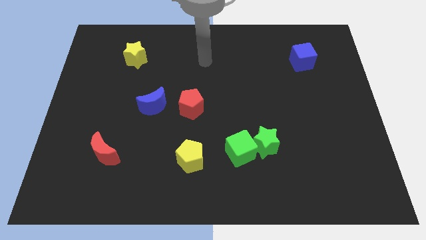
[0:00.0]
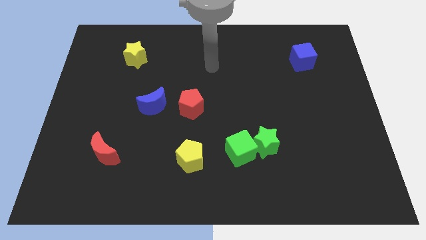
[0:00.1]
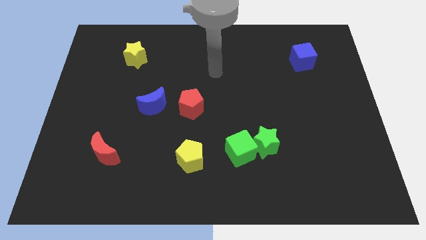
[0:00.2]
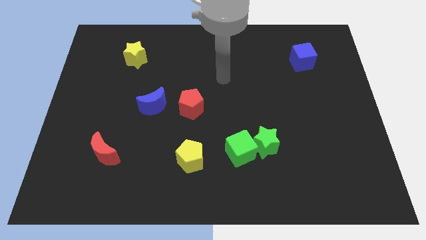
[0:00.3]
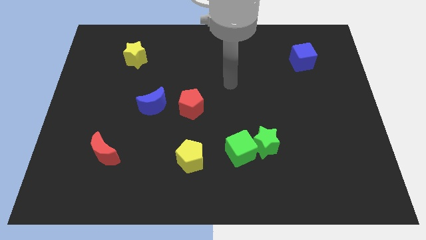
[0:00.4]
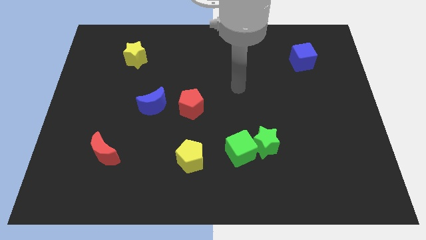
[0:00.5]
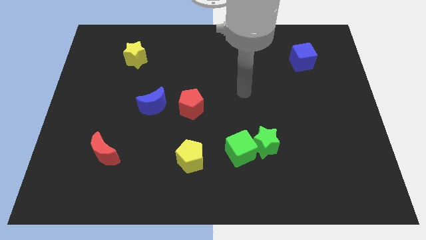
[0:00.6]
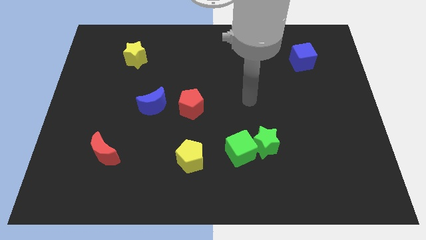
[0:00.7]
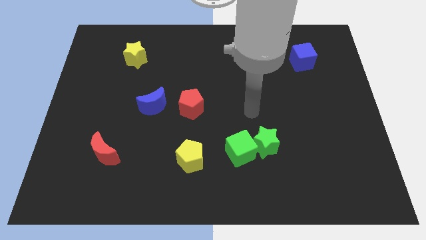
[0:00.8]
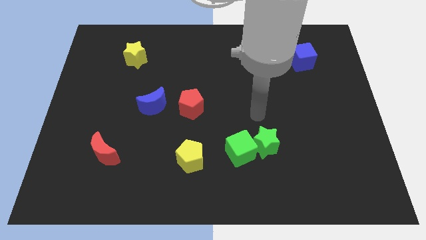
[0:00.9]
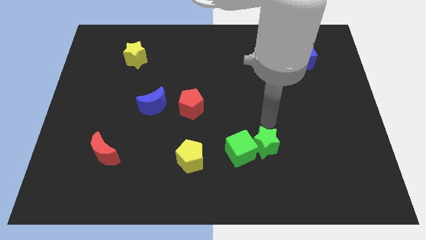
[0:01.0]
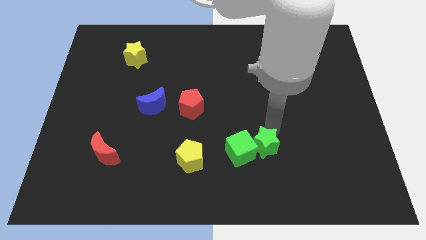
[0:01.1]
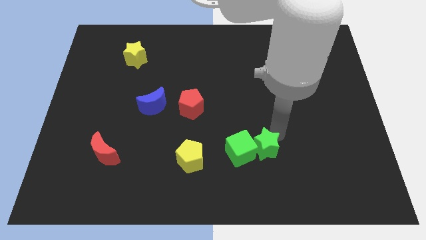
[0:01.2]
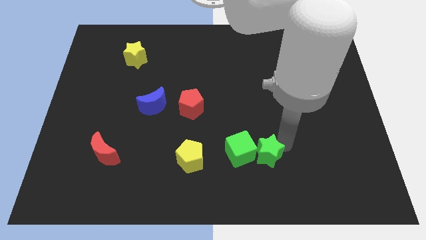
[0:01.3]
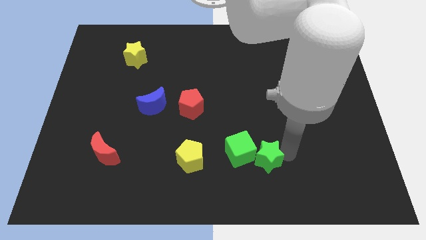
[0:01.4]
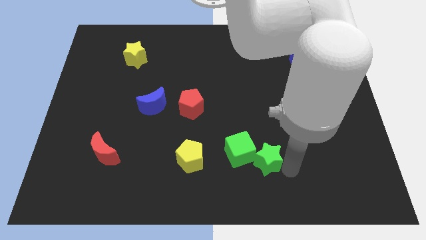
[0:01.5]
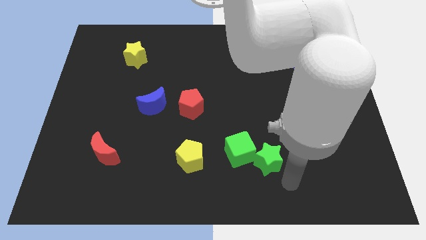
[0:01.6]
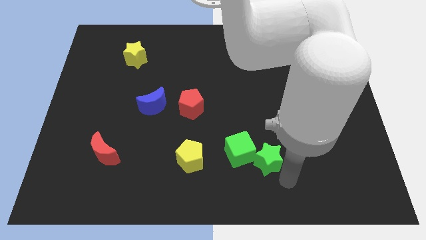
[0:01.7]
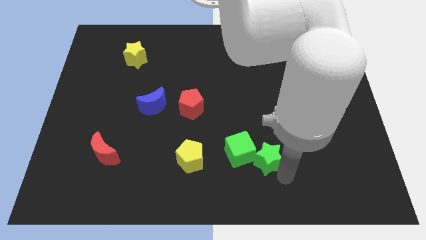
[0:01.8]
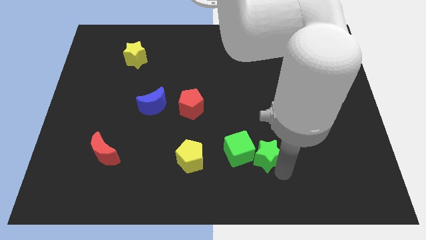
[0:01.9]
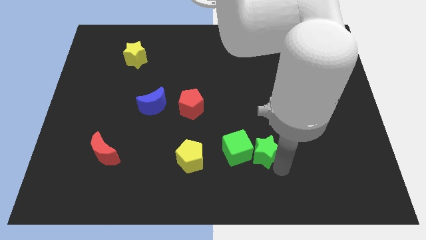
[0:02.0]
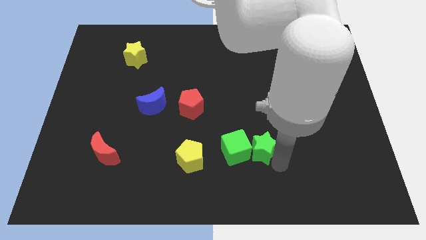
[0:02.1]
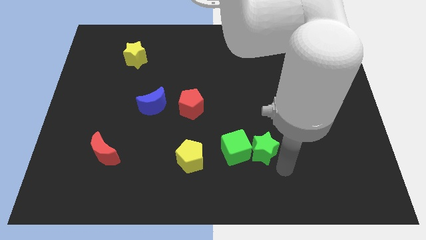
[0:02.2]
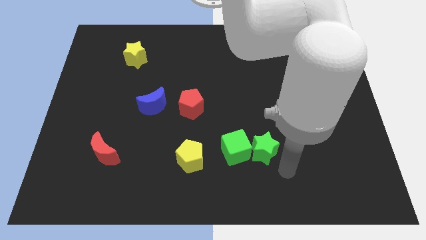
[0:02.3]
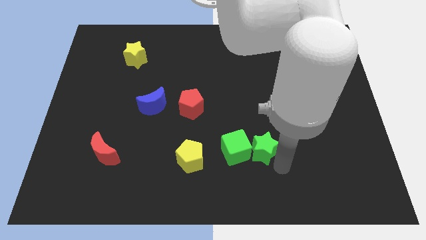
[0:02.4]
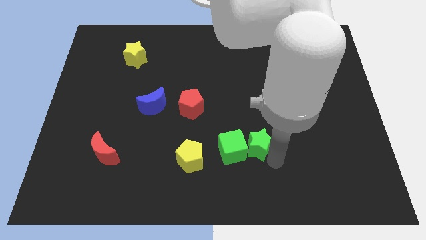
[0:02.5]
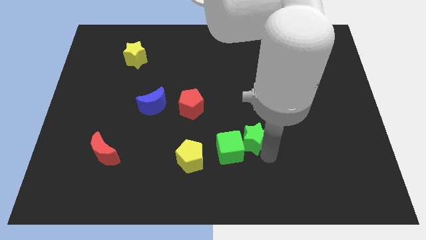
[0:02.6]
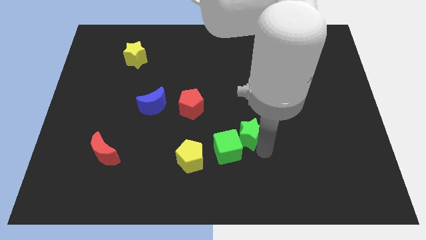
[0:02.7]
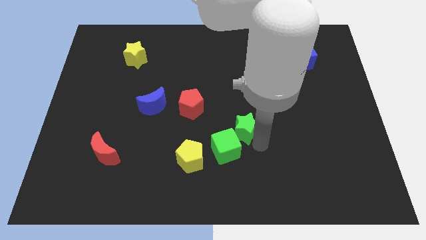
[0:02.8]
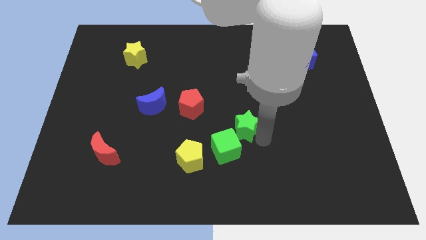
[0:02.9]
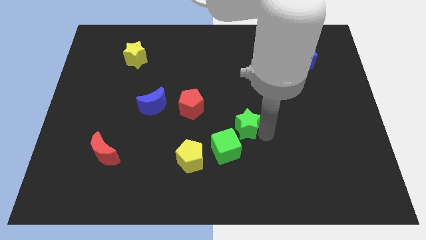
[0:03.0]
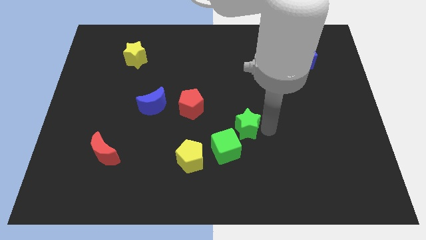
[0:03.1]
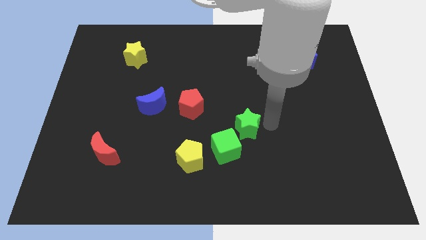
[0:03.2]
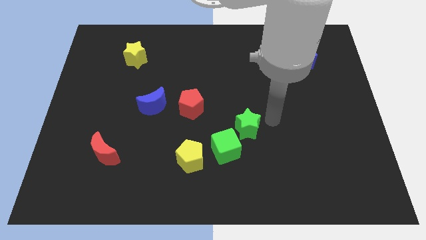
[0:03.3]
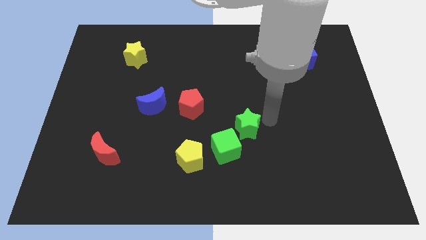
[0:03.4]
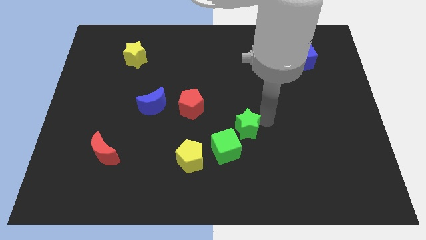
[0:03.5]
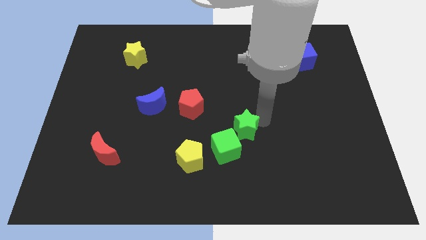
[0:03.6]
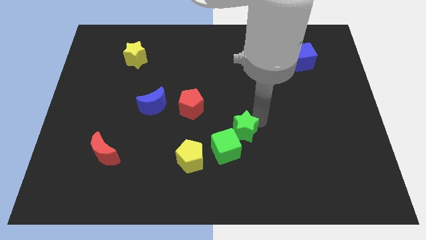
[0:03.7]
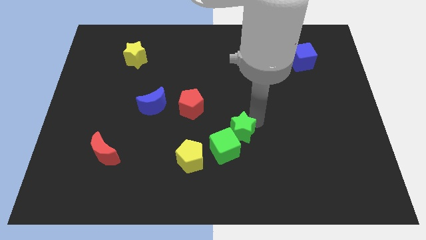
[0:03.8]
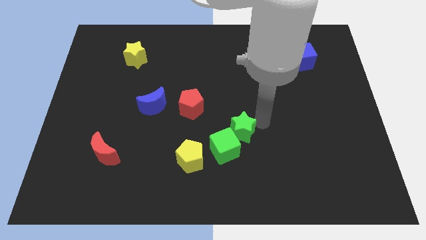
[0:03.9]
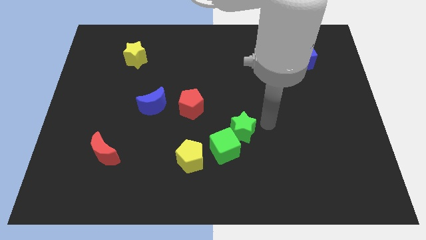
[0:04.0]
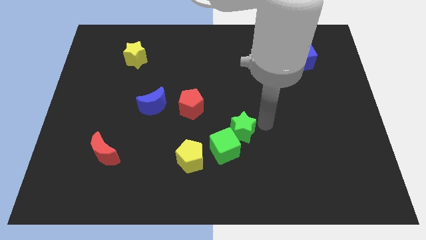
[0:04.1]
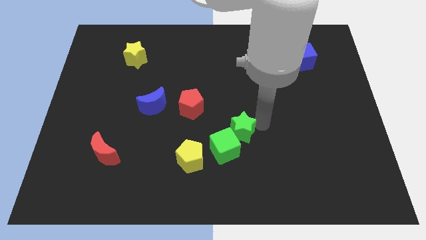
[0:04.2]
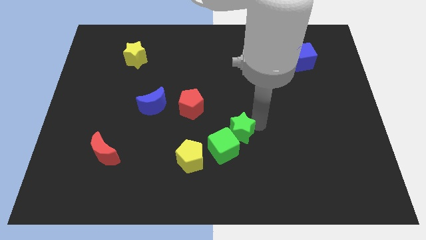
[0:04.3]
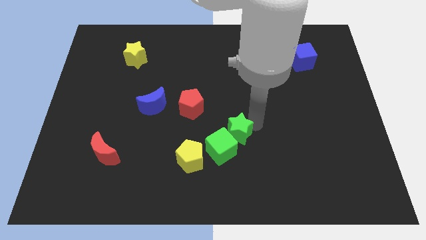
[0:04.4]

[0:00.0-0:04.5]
put the green star to the top right of the yellow pentagon

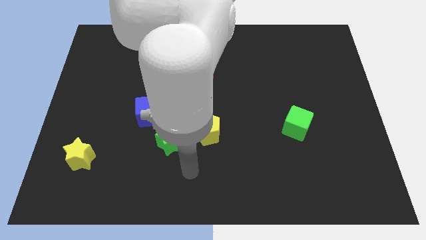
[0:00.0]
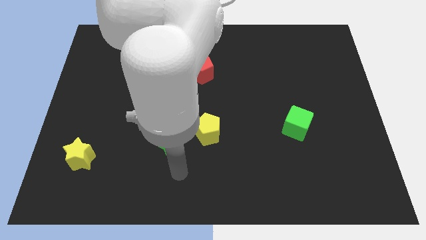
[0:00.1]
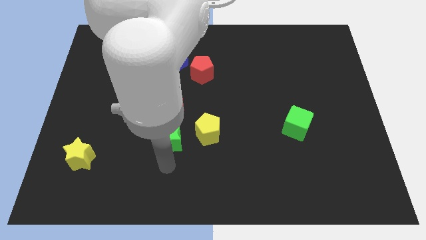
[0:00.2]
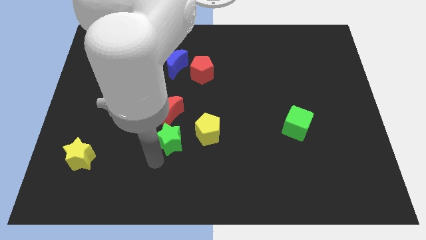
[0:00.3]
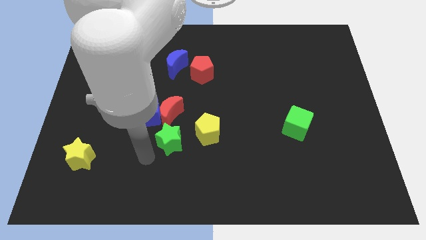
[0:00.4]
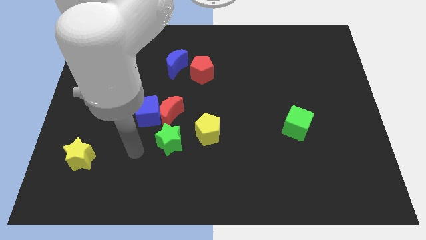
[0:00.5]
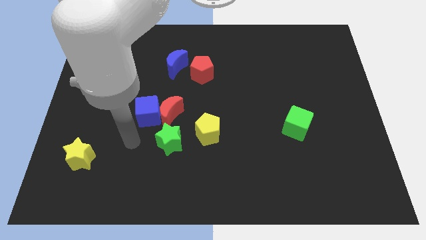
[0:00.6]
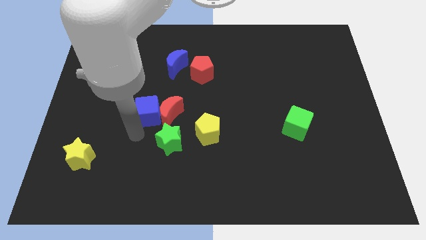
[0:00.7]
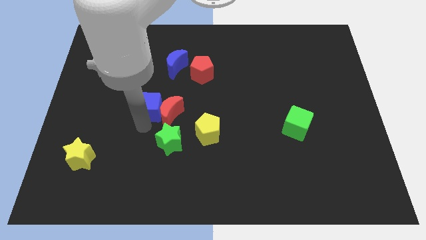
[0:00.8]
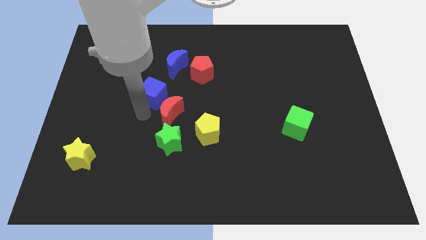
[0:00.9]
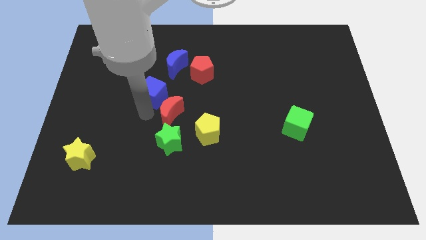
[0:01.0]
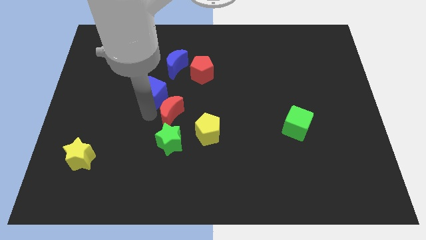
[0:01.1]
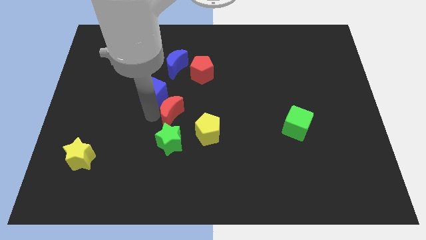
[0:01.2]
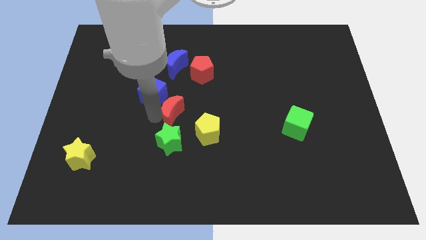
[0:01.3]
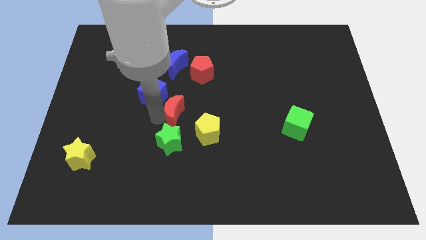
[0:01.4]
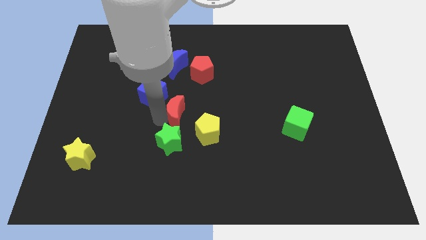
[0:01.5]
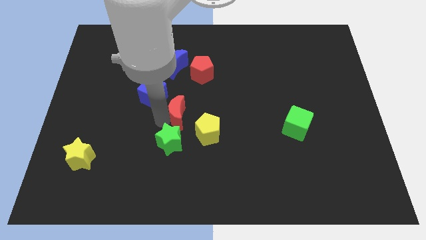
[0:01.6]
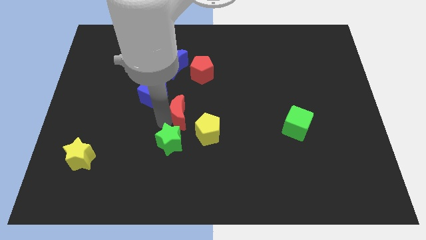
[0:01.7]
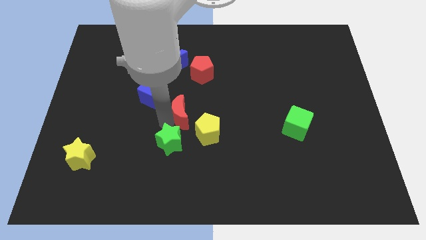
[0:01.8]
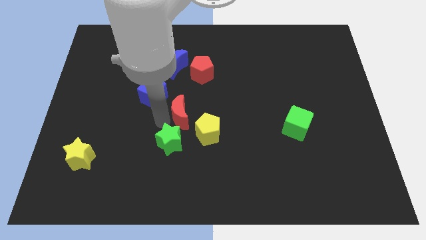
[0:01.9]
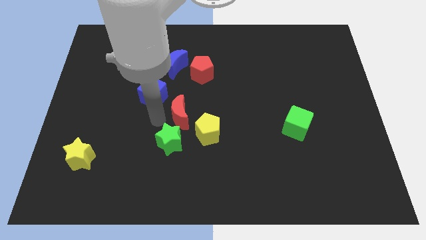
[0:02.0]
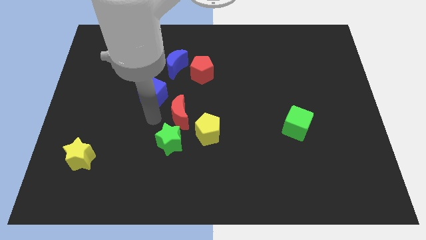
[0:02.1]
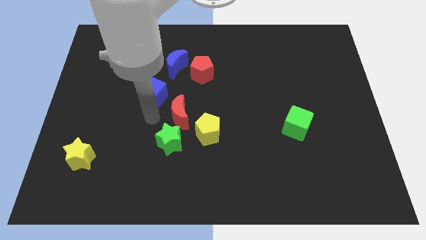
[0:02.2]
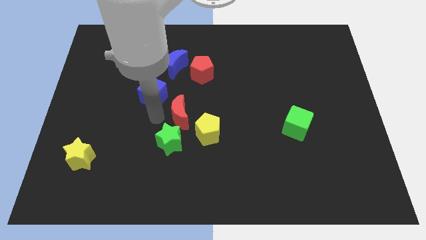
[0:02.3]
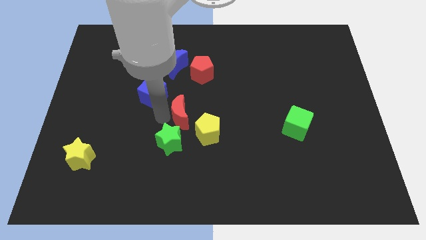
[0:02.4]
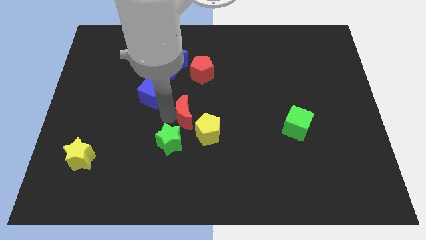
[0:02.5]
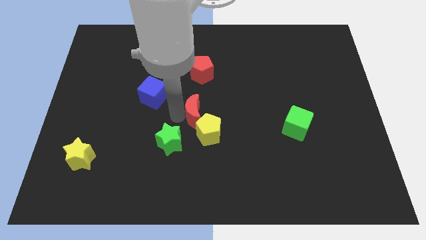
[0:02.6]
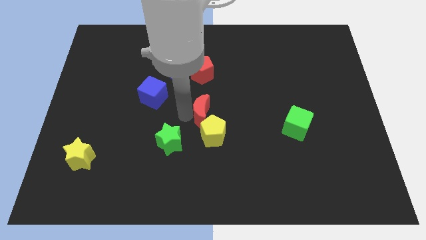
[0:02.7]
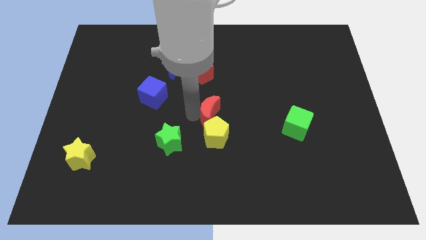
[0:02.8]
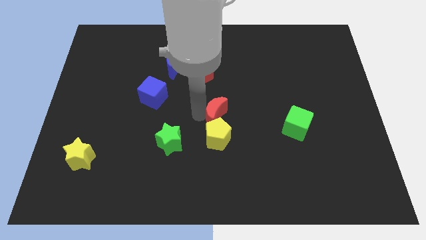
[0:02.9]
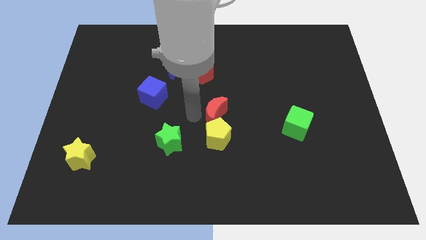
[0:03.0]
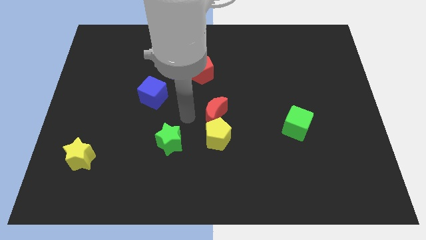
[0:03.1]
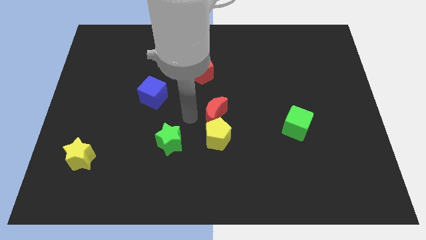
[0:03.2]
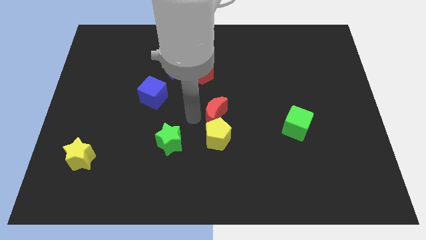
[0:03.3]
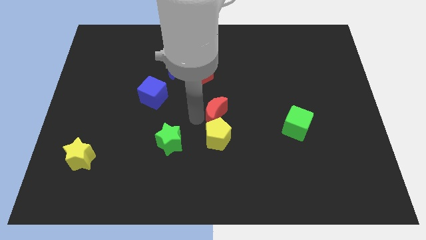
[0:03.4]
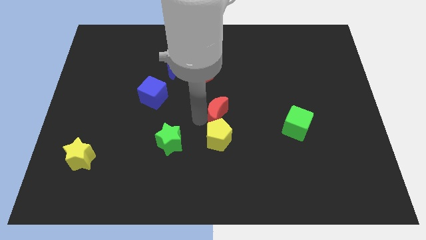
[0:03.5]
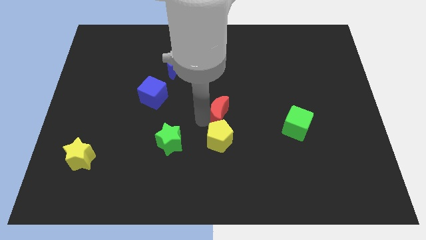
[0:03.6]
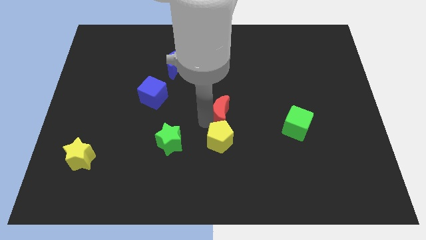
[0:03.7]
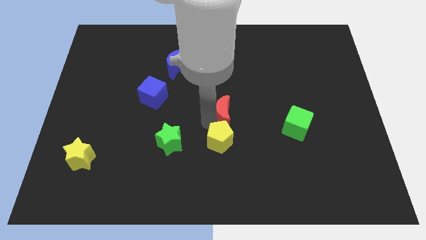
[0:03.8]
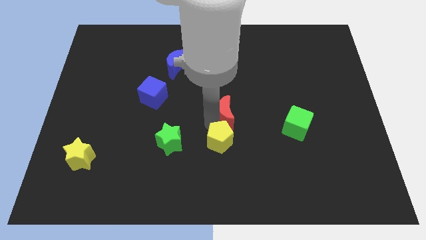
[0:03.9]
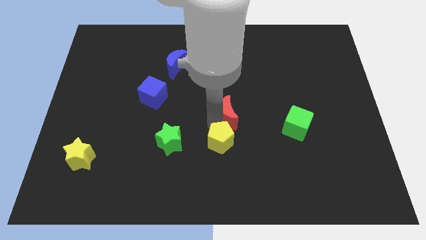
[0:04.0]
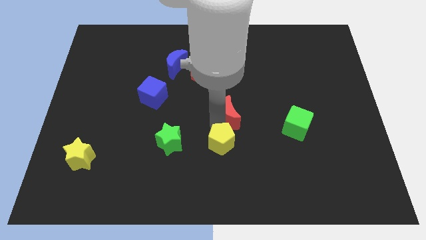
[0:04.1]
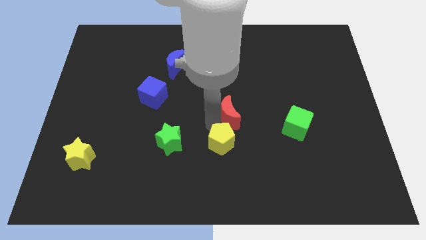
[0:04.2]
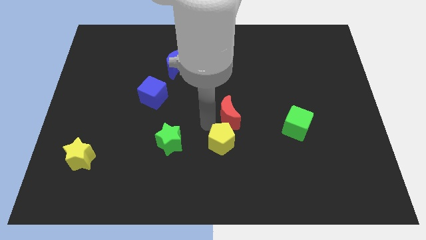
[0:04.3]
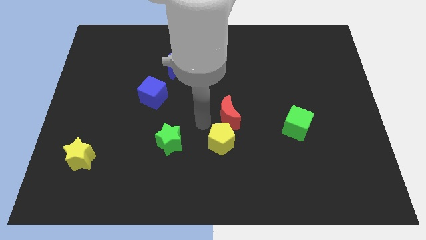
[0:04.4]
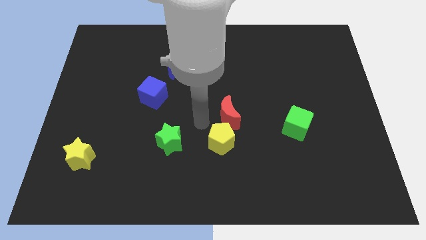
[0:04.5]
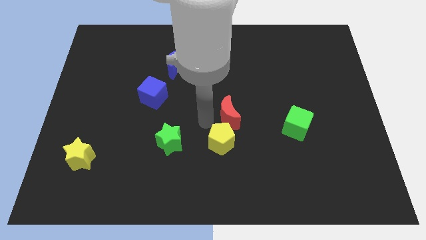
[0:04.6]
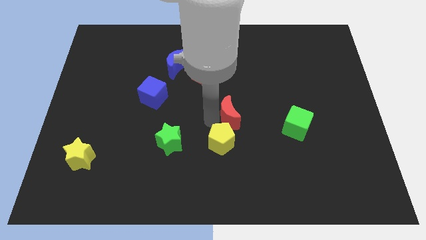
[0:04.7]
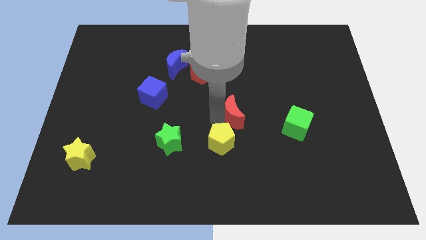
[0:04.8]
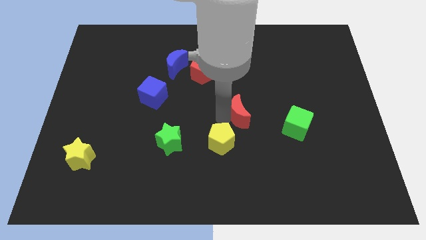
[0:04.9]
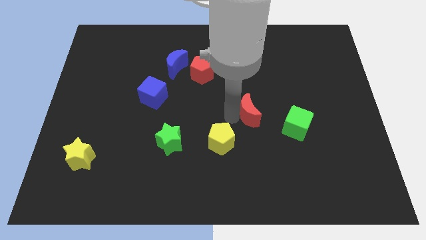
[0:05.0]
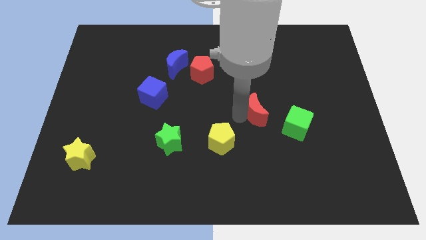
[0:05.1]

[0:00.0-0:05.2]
slide the red moon to the top left side of the green cube
